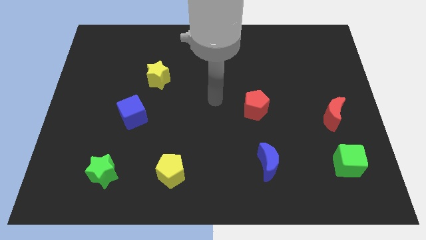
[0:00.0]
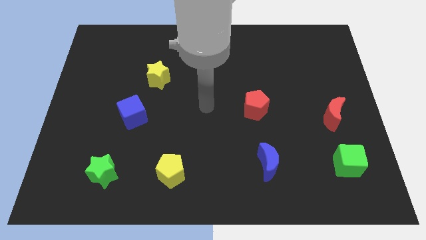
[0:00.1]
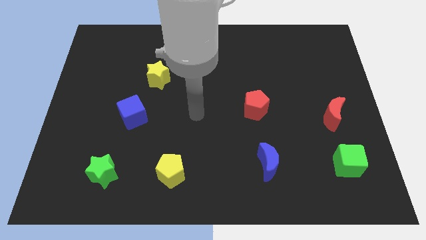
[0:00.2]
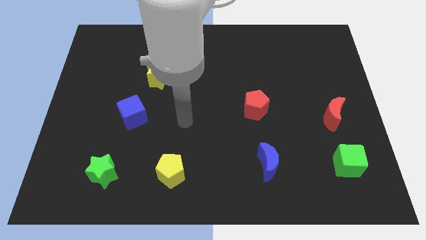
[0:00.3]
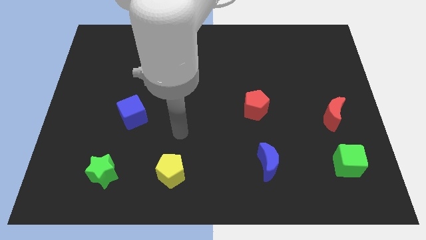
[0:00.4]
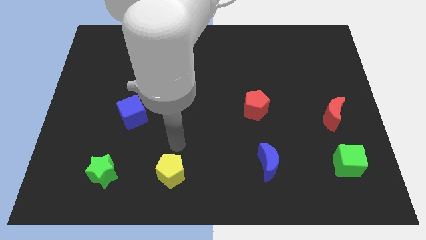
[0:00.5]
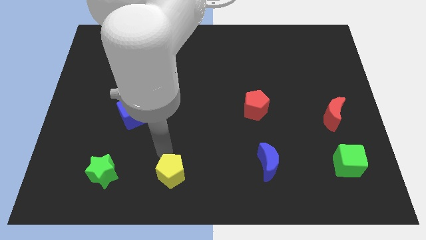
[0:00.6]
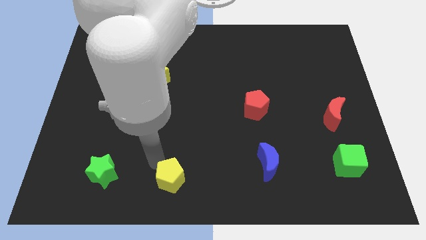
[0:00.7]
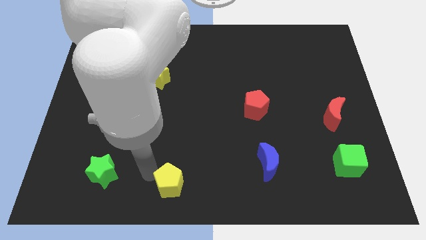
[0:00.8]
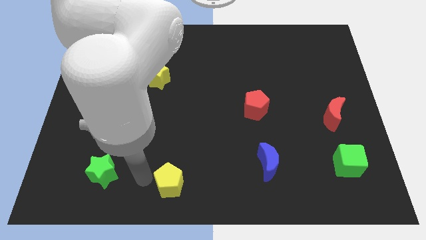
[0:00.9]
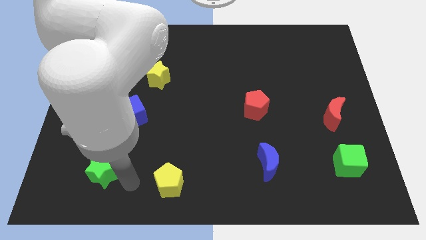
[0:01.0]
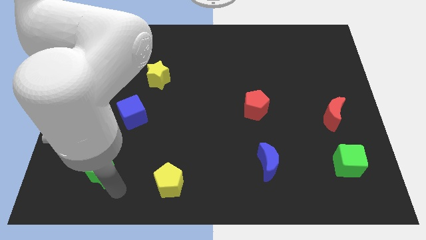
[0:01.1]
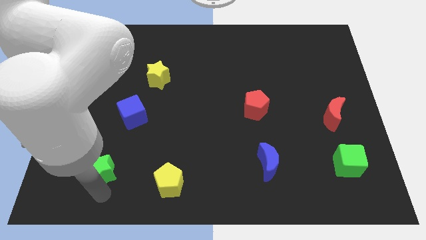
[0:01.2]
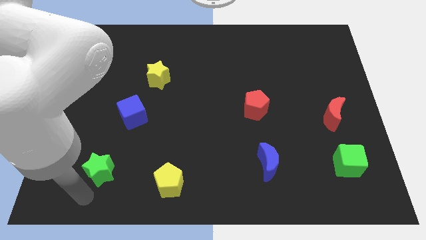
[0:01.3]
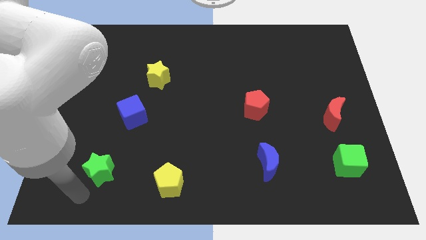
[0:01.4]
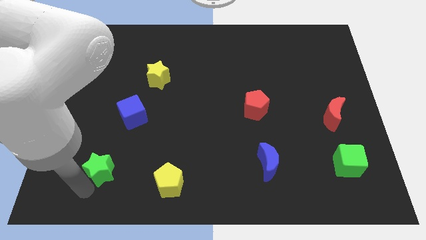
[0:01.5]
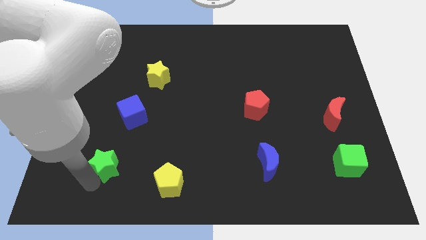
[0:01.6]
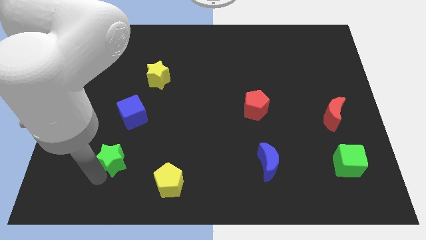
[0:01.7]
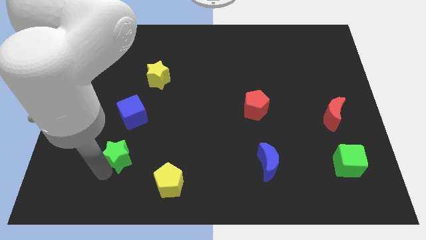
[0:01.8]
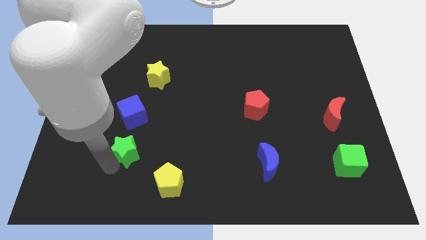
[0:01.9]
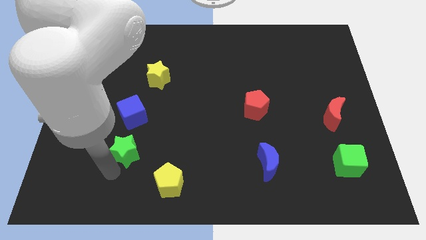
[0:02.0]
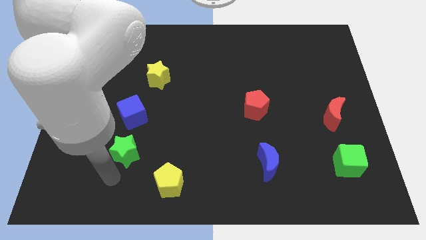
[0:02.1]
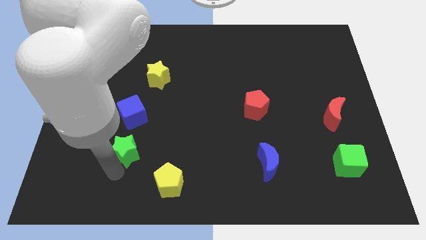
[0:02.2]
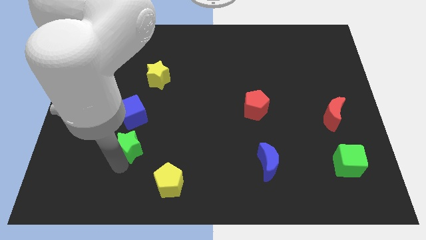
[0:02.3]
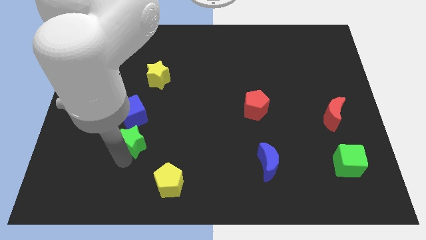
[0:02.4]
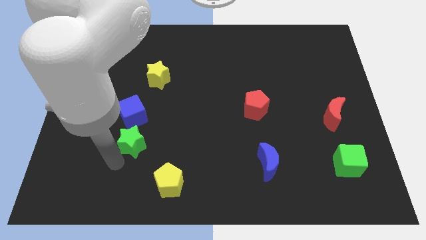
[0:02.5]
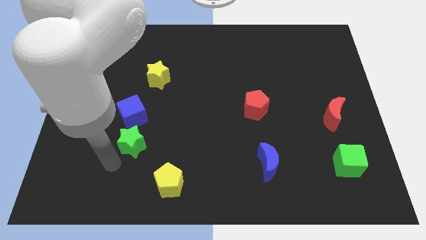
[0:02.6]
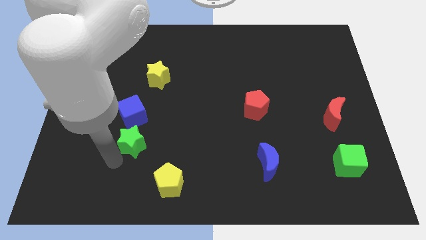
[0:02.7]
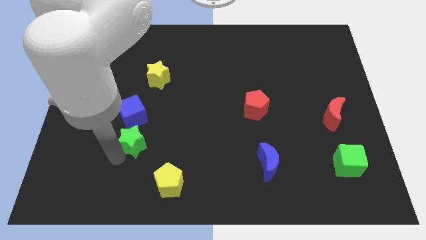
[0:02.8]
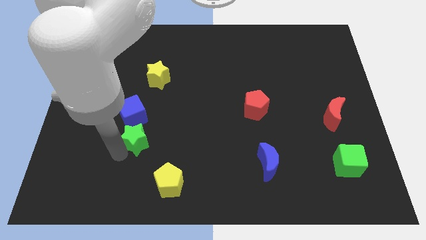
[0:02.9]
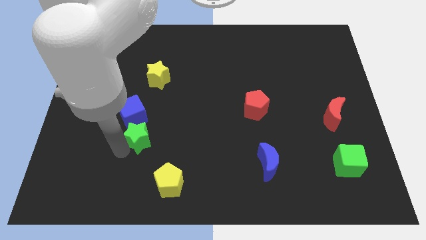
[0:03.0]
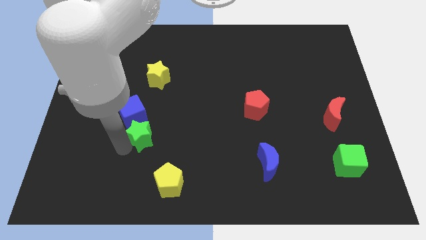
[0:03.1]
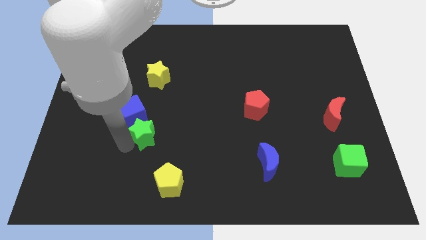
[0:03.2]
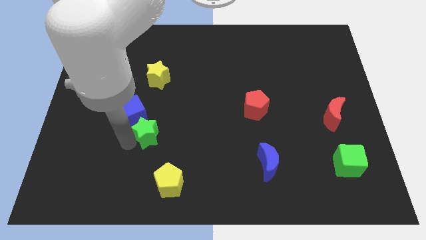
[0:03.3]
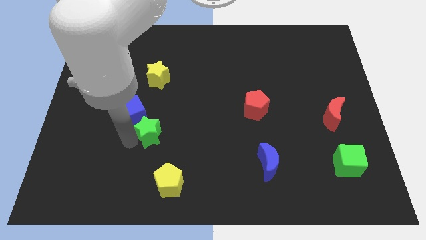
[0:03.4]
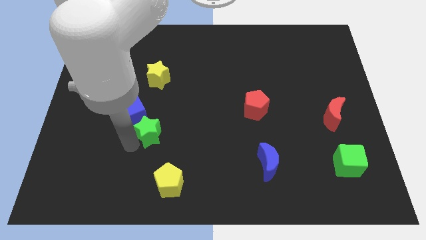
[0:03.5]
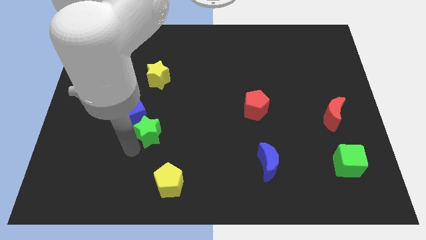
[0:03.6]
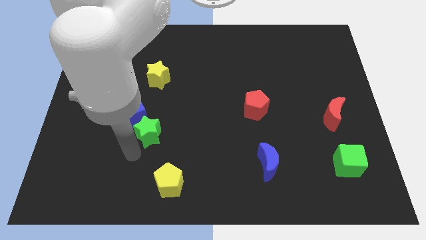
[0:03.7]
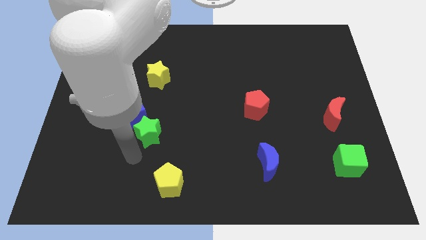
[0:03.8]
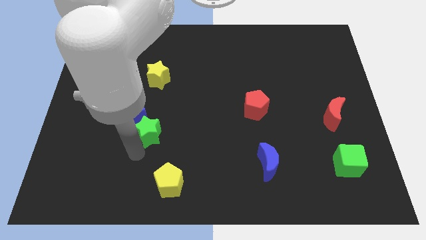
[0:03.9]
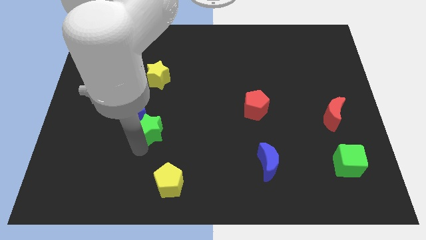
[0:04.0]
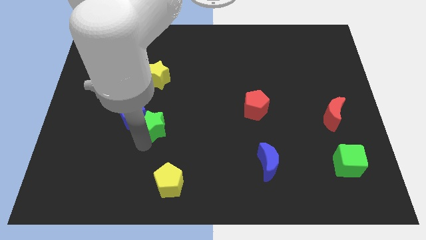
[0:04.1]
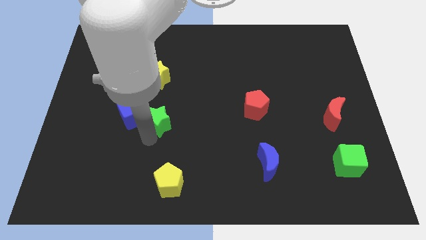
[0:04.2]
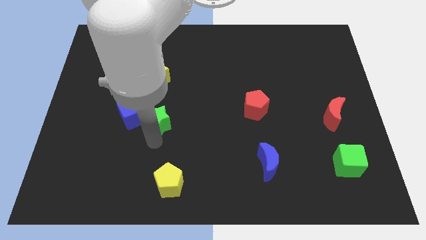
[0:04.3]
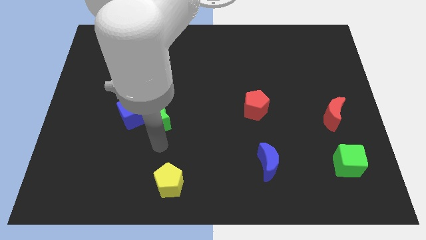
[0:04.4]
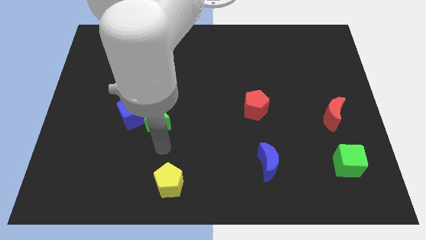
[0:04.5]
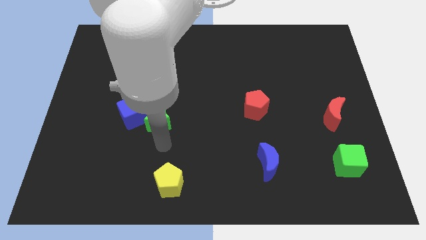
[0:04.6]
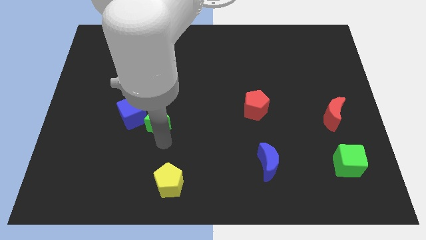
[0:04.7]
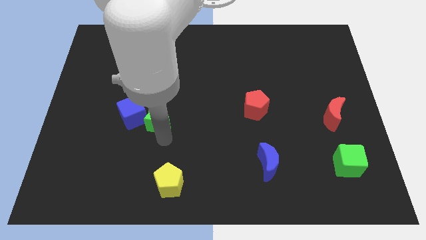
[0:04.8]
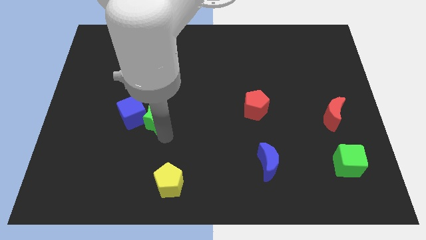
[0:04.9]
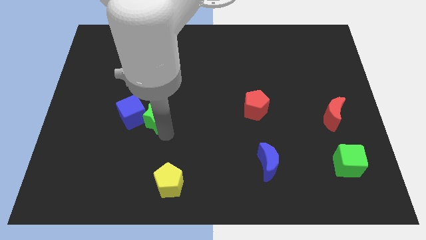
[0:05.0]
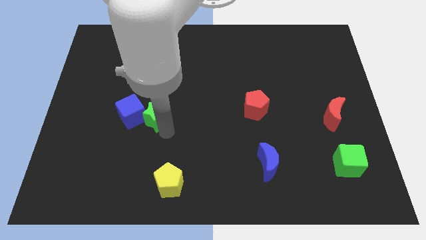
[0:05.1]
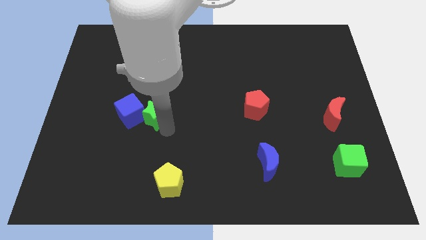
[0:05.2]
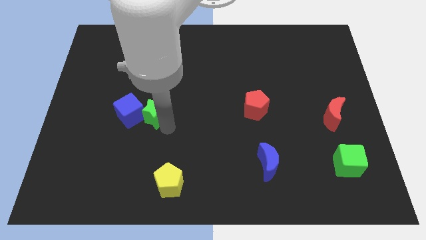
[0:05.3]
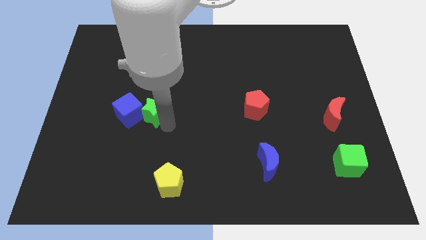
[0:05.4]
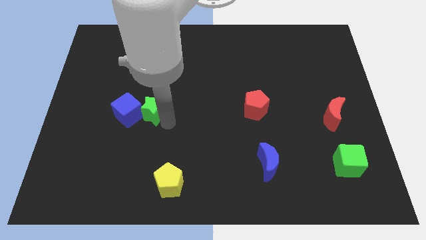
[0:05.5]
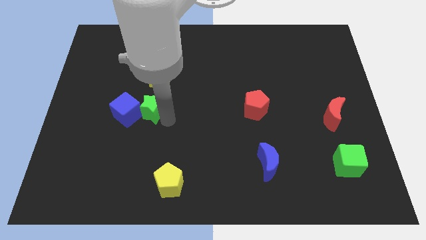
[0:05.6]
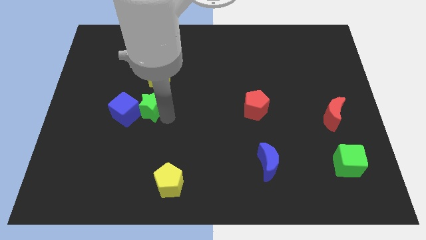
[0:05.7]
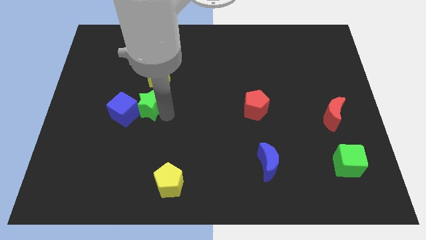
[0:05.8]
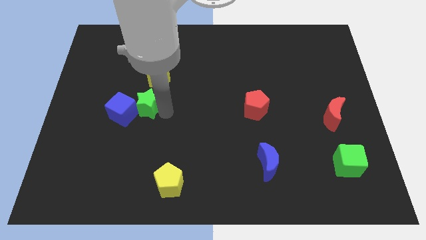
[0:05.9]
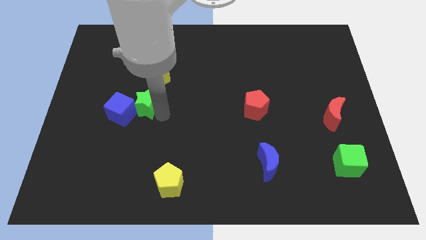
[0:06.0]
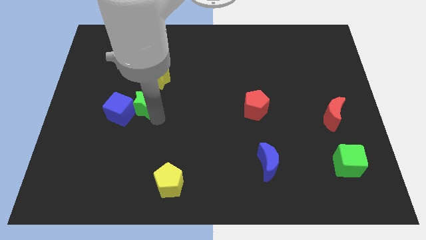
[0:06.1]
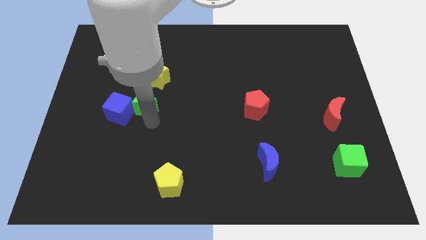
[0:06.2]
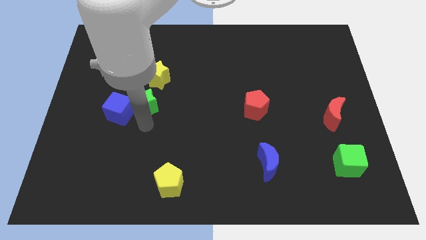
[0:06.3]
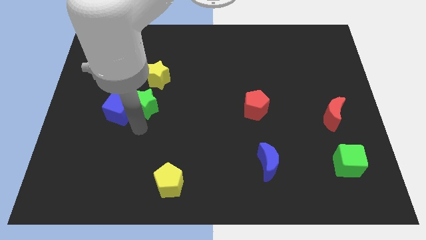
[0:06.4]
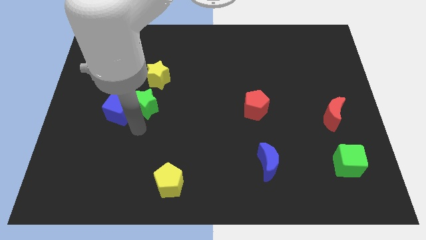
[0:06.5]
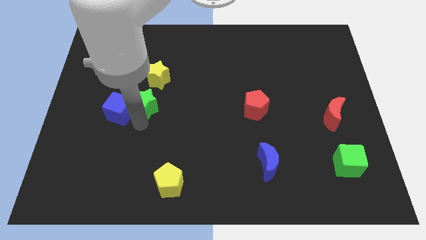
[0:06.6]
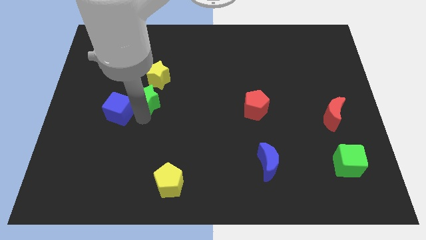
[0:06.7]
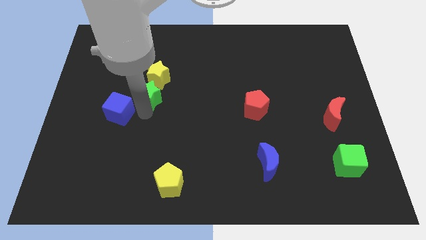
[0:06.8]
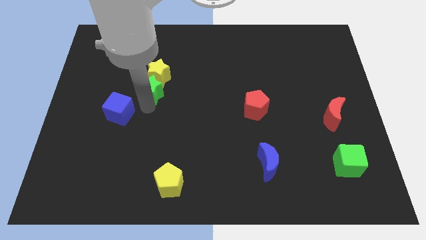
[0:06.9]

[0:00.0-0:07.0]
slide the green star to the yellow star
